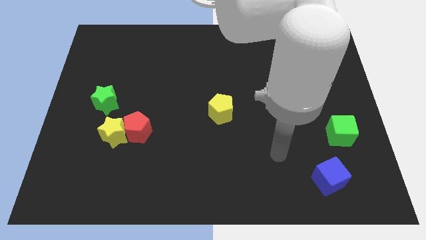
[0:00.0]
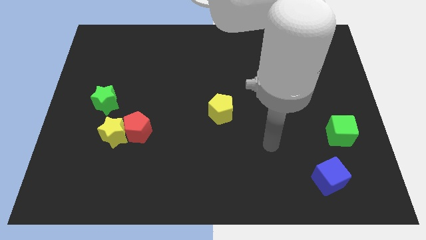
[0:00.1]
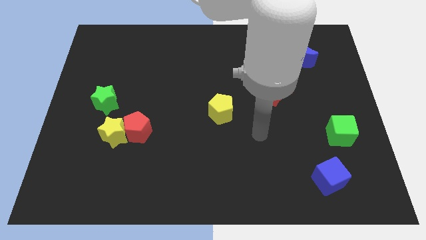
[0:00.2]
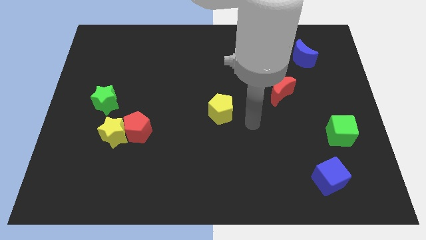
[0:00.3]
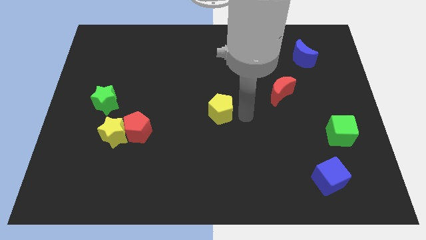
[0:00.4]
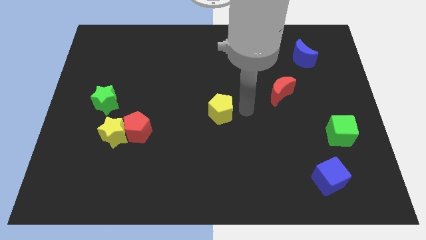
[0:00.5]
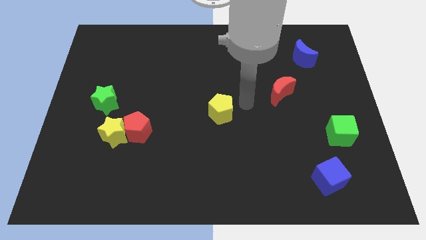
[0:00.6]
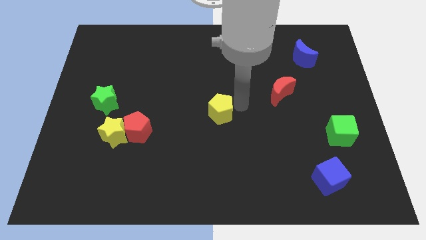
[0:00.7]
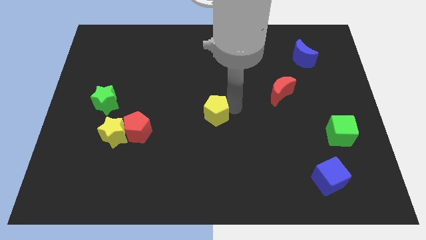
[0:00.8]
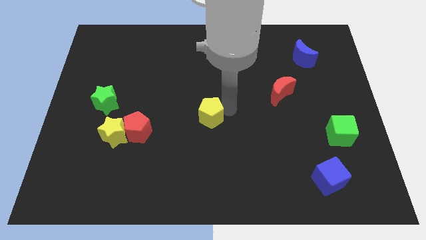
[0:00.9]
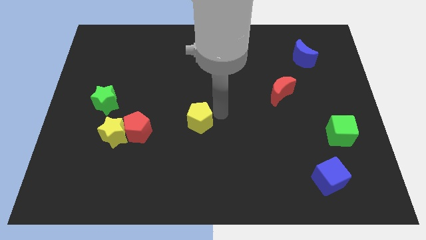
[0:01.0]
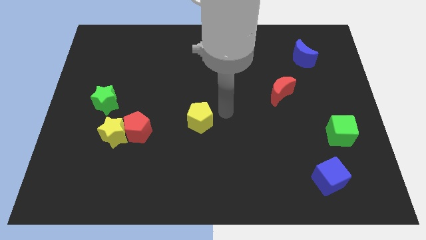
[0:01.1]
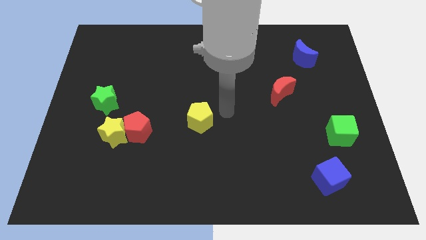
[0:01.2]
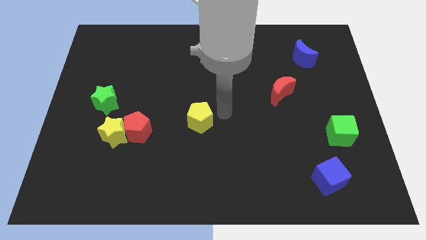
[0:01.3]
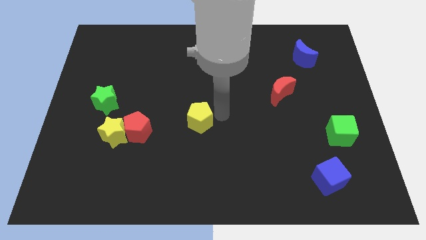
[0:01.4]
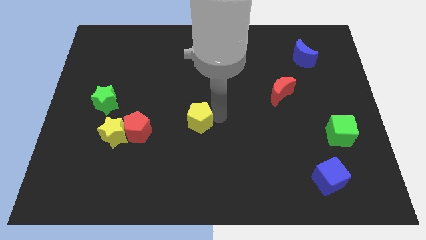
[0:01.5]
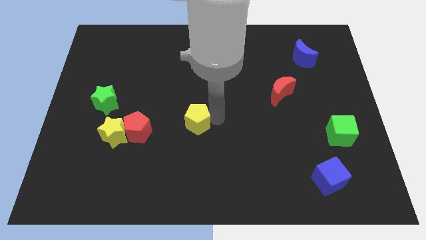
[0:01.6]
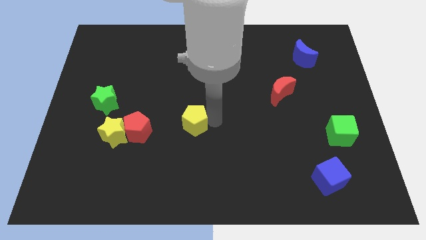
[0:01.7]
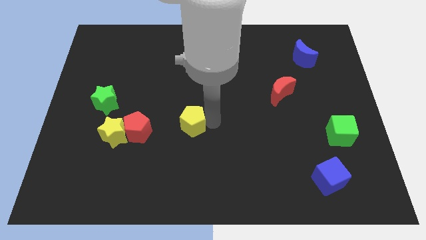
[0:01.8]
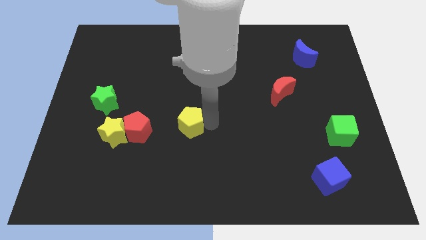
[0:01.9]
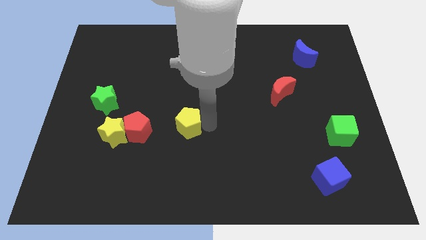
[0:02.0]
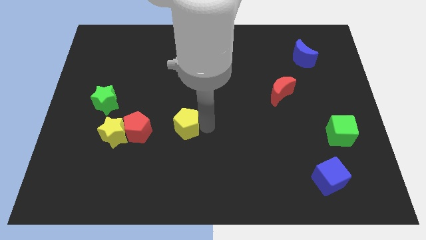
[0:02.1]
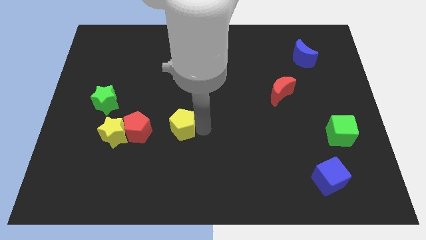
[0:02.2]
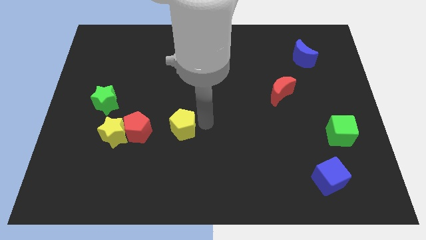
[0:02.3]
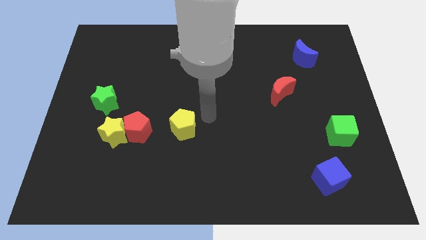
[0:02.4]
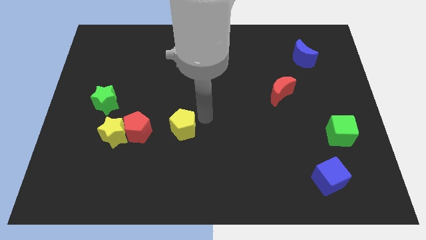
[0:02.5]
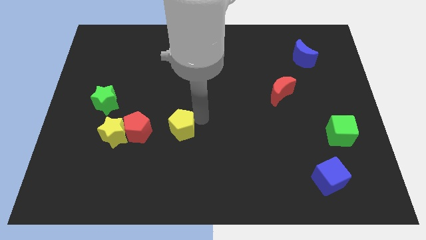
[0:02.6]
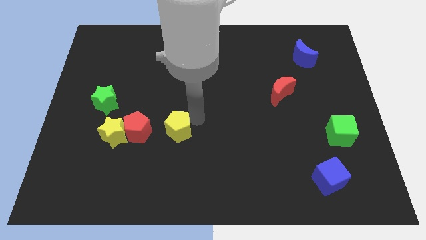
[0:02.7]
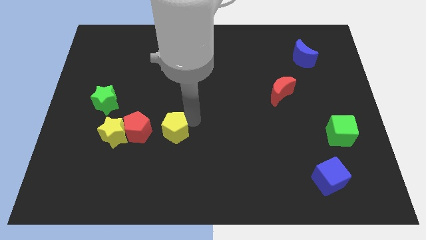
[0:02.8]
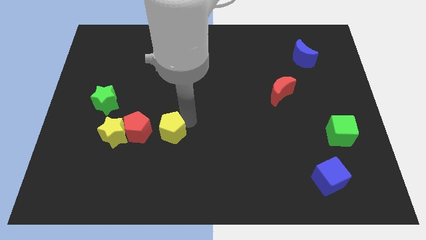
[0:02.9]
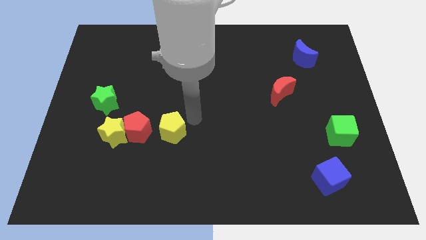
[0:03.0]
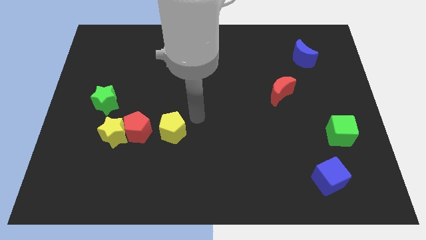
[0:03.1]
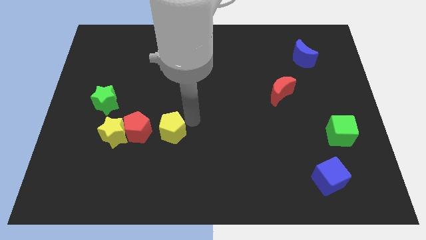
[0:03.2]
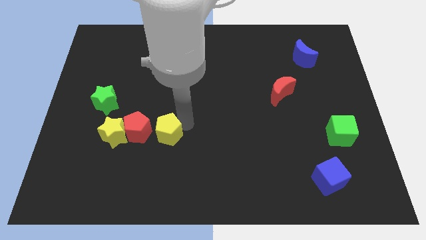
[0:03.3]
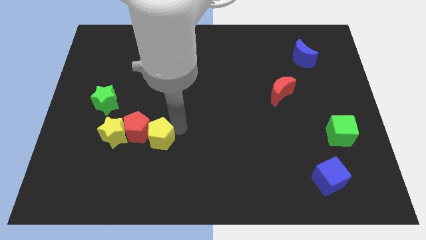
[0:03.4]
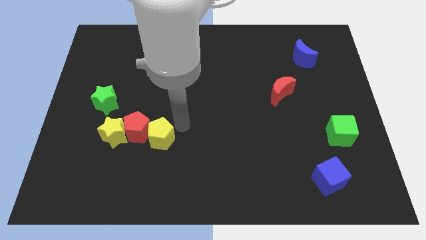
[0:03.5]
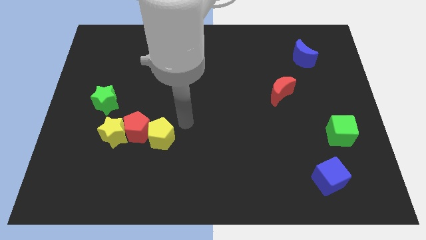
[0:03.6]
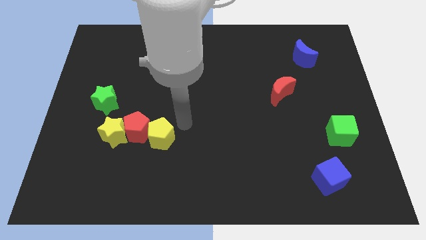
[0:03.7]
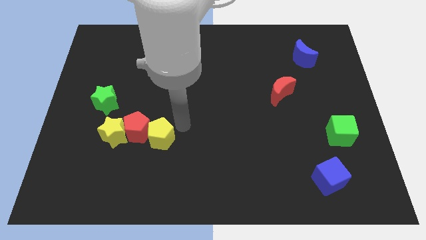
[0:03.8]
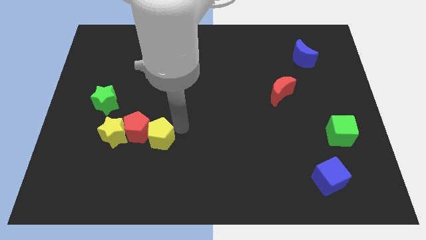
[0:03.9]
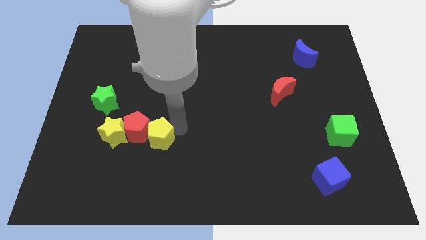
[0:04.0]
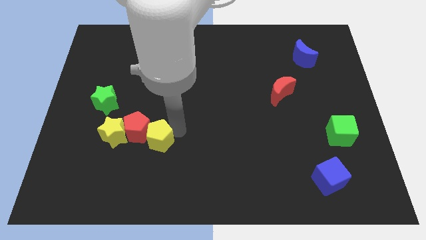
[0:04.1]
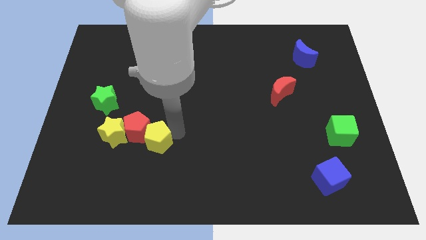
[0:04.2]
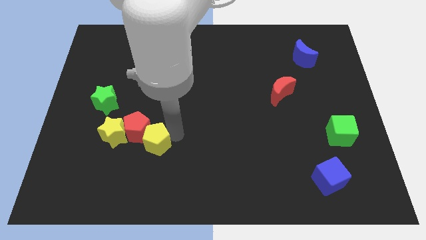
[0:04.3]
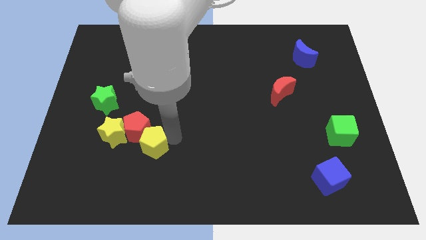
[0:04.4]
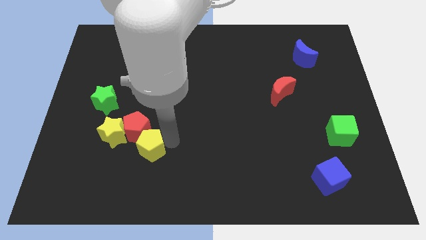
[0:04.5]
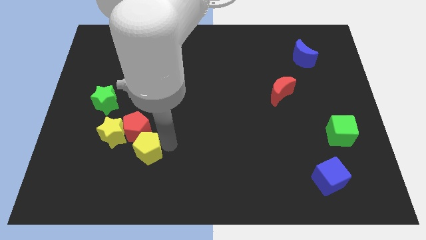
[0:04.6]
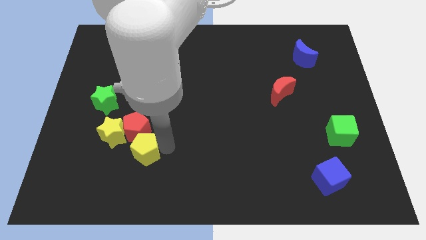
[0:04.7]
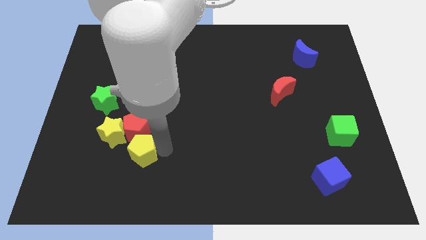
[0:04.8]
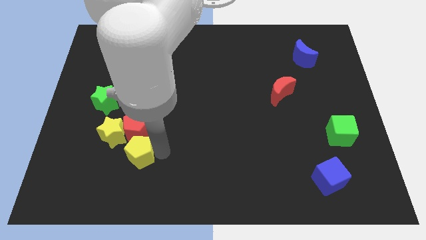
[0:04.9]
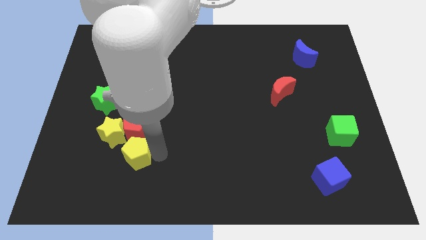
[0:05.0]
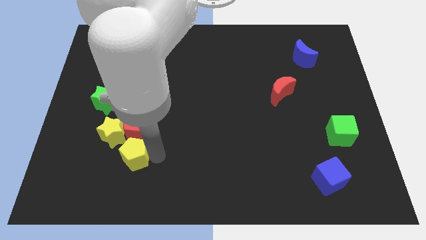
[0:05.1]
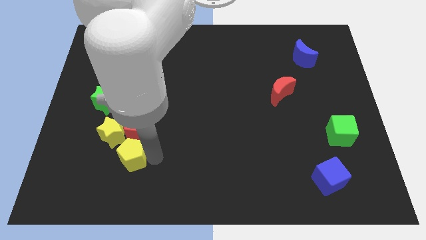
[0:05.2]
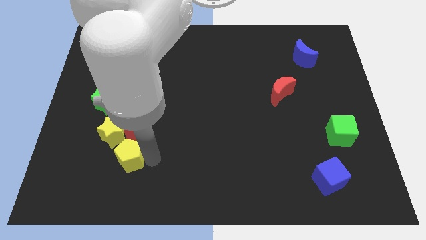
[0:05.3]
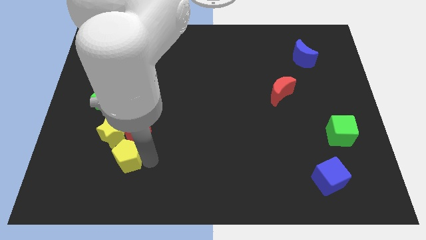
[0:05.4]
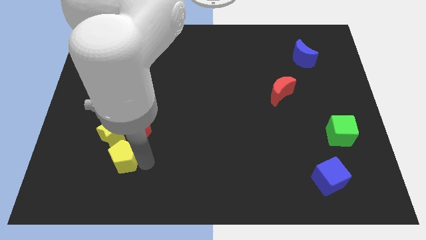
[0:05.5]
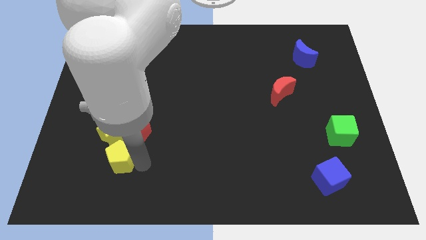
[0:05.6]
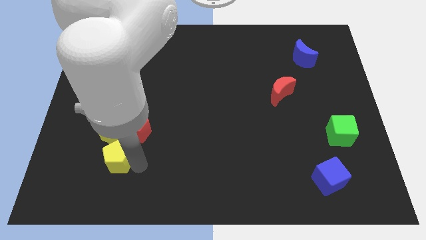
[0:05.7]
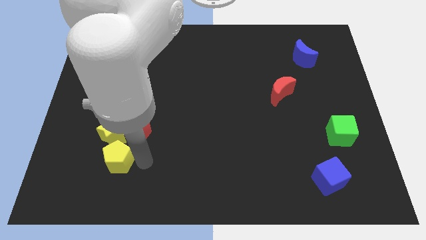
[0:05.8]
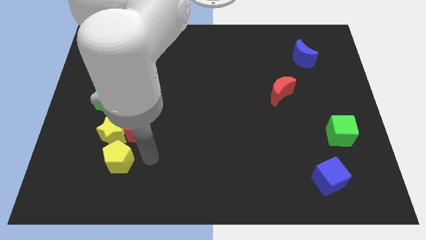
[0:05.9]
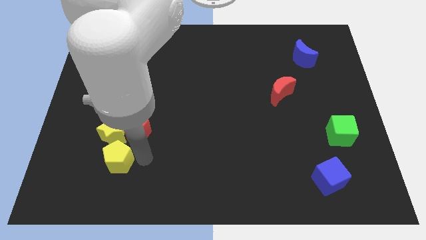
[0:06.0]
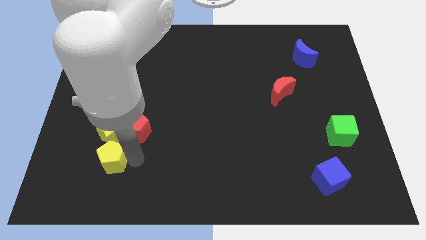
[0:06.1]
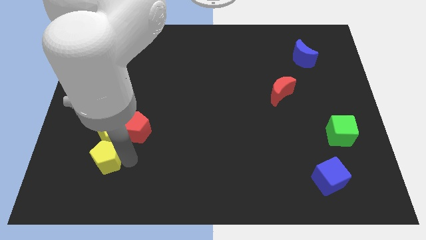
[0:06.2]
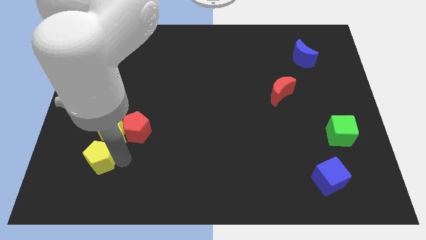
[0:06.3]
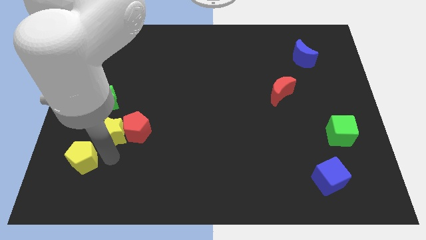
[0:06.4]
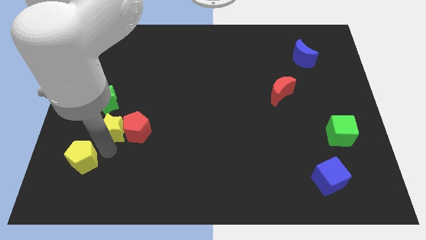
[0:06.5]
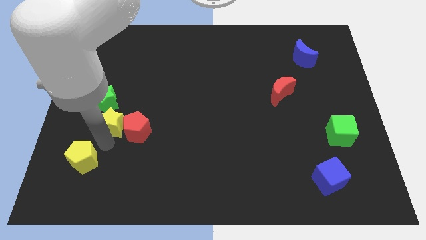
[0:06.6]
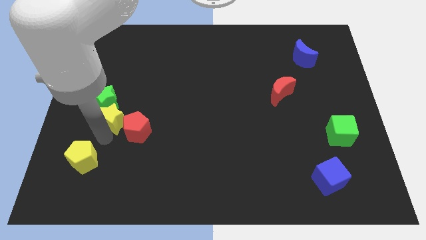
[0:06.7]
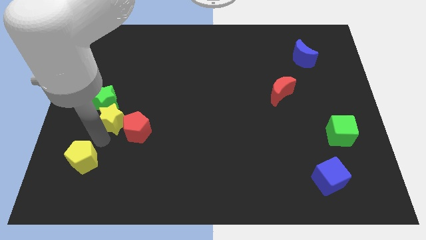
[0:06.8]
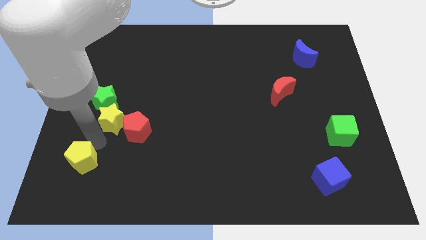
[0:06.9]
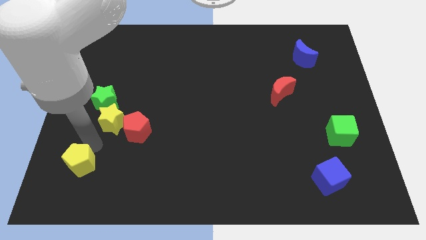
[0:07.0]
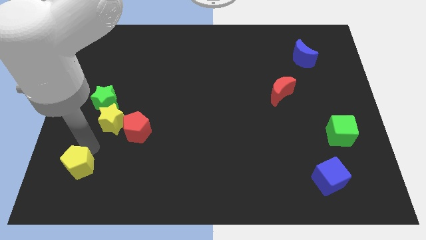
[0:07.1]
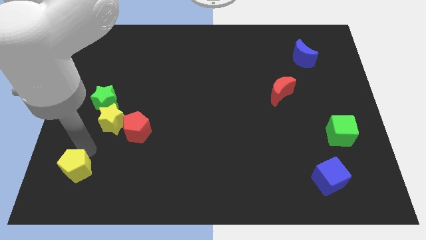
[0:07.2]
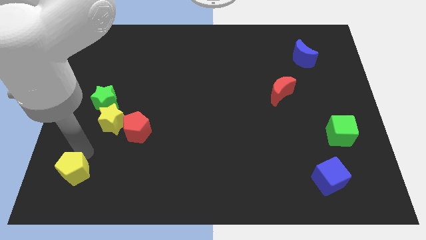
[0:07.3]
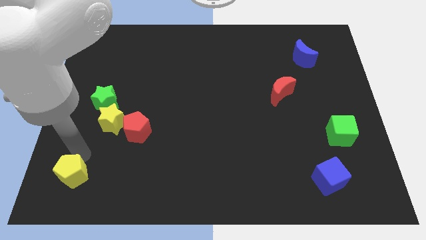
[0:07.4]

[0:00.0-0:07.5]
move the yellow pentagon to the bottom left corner
